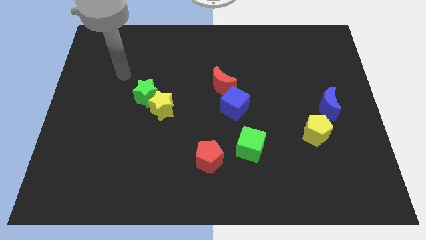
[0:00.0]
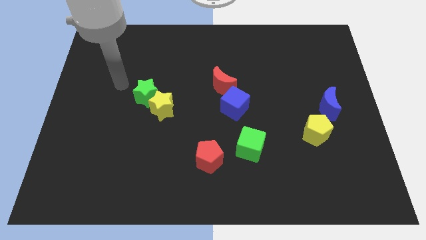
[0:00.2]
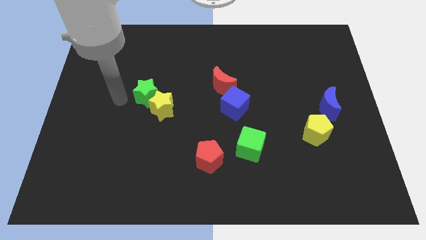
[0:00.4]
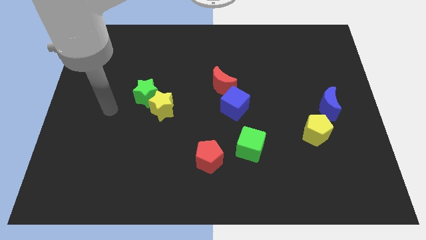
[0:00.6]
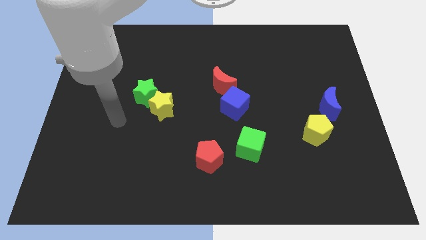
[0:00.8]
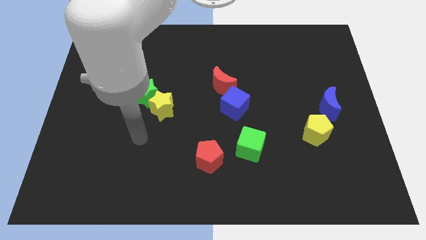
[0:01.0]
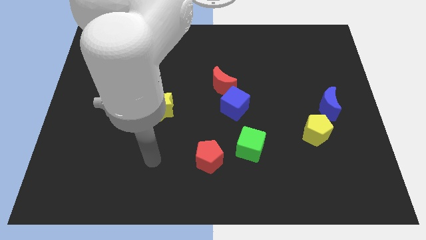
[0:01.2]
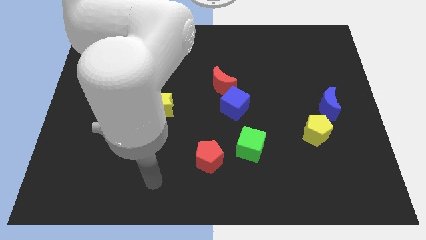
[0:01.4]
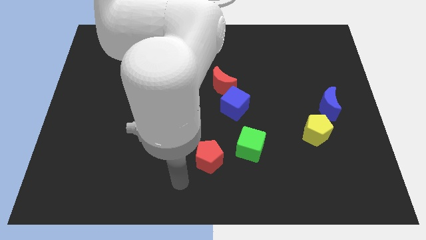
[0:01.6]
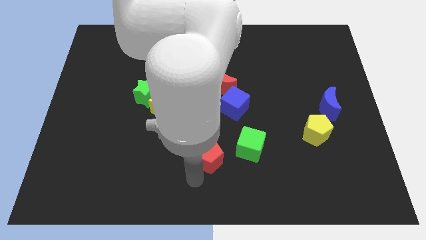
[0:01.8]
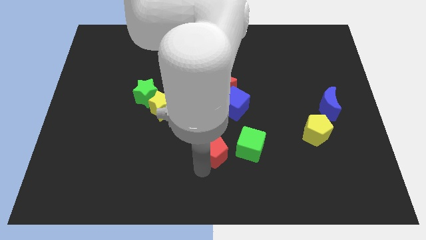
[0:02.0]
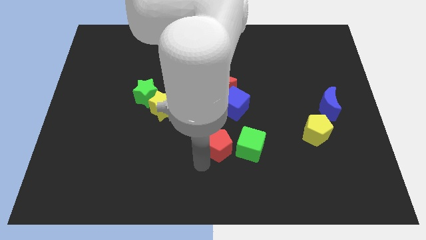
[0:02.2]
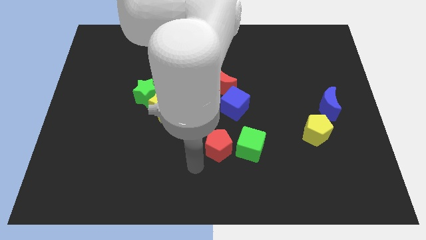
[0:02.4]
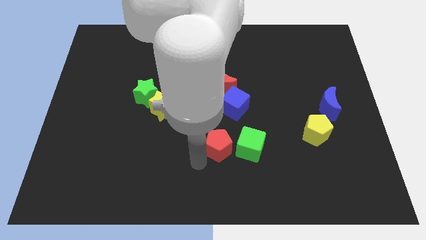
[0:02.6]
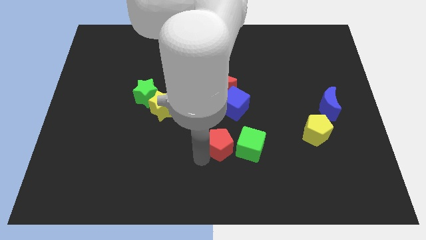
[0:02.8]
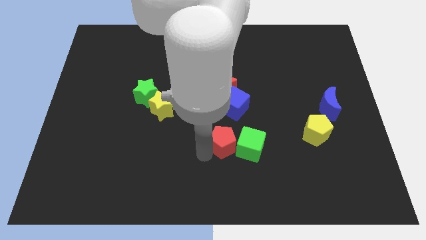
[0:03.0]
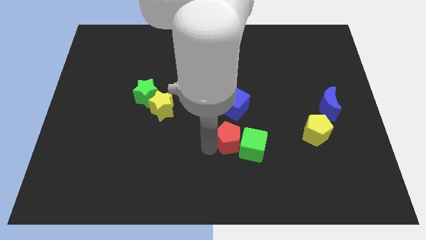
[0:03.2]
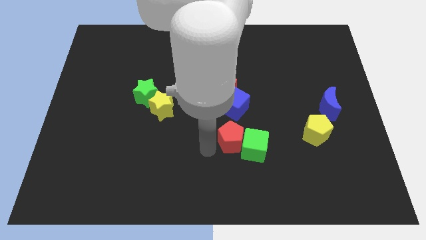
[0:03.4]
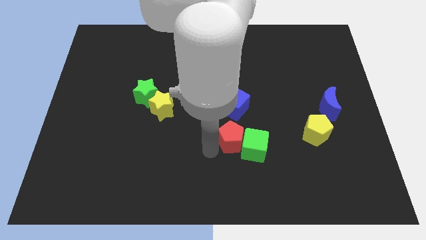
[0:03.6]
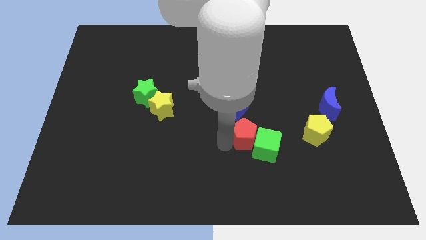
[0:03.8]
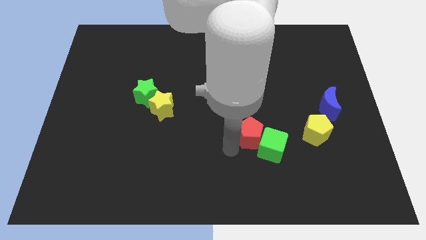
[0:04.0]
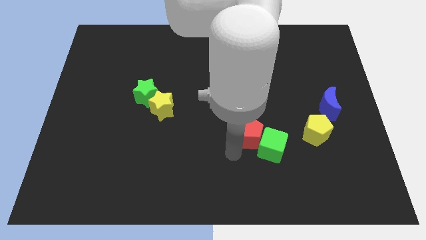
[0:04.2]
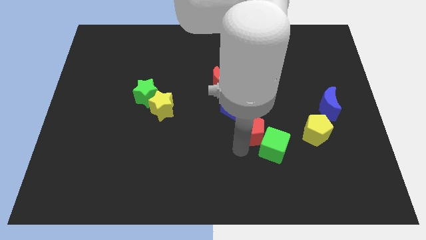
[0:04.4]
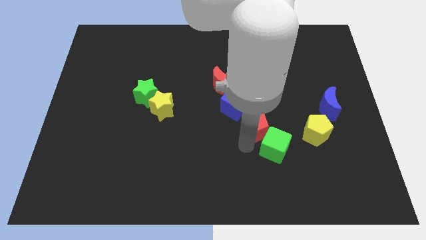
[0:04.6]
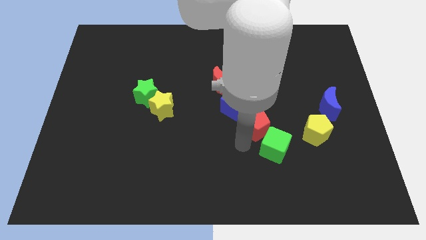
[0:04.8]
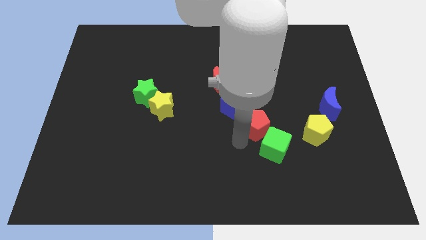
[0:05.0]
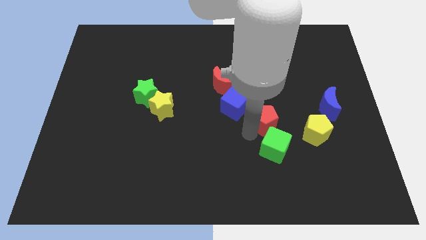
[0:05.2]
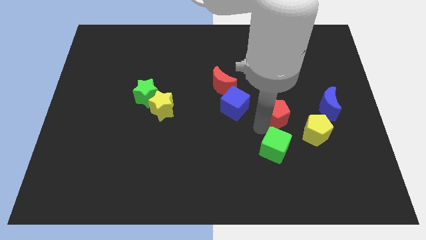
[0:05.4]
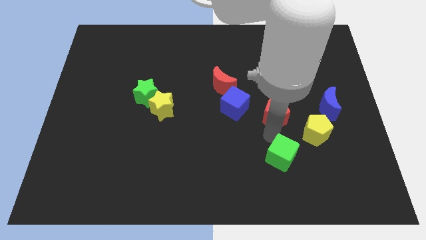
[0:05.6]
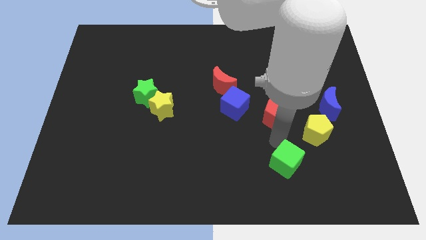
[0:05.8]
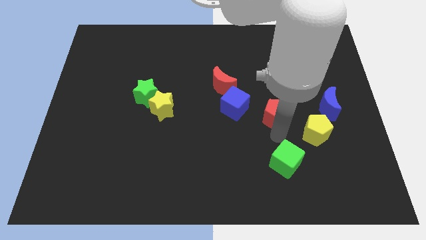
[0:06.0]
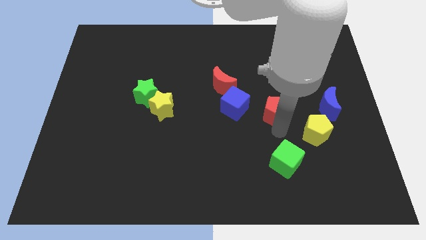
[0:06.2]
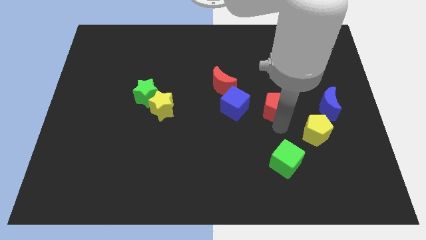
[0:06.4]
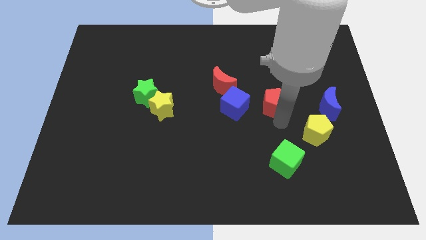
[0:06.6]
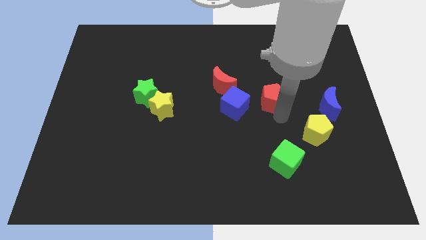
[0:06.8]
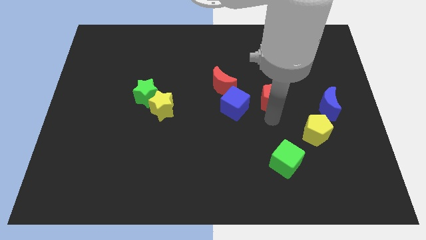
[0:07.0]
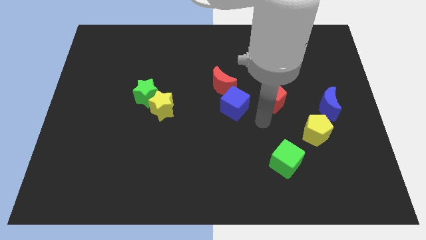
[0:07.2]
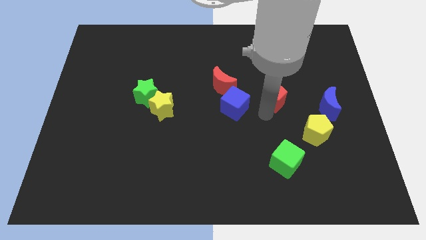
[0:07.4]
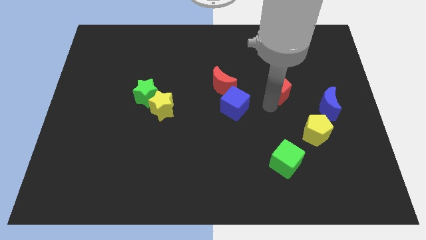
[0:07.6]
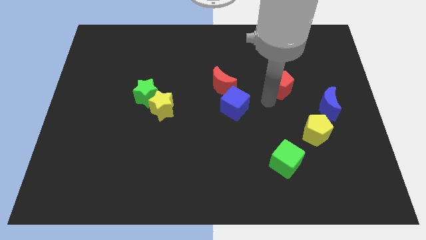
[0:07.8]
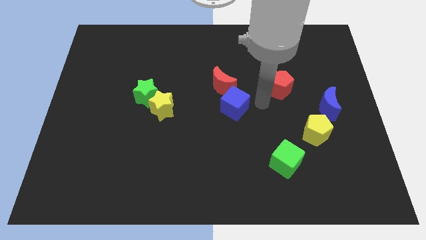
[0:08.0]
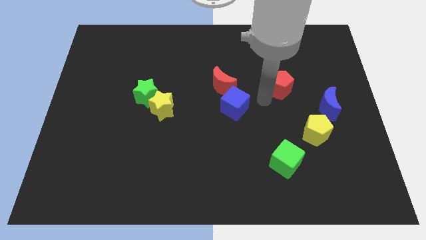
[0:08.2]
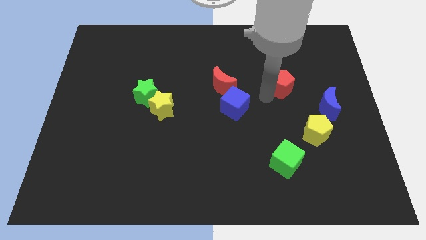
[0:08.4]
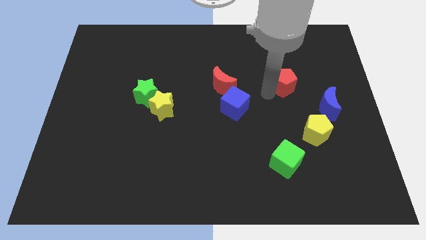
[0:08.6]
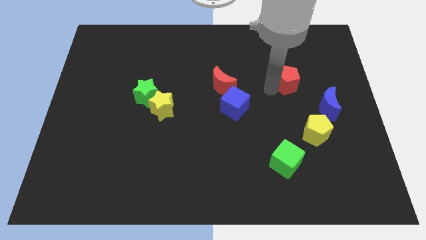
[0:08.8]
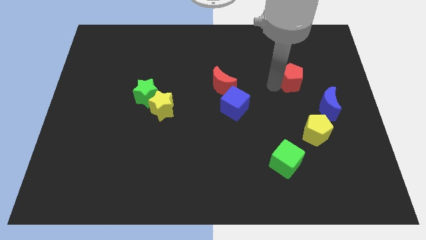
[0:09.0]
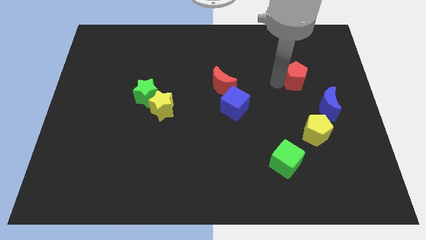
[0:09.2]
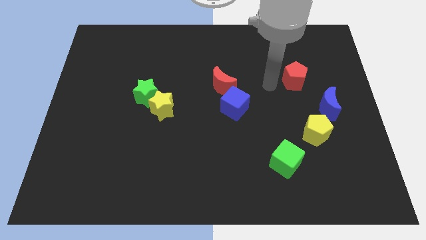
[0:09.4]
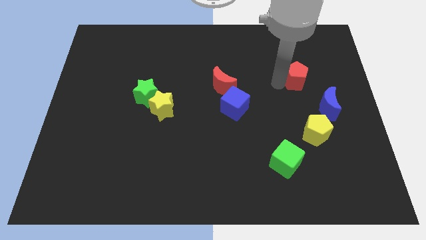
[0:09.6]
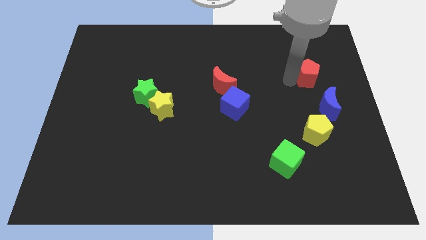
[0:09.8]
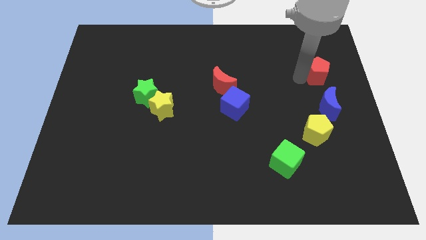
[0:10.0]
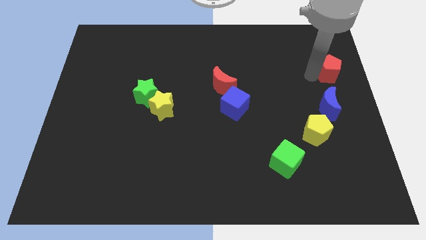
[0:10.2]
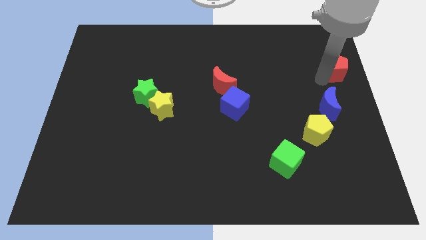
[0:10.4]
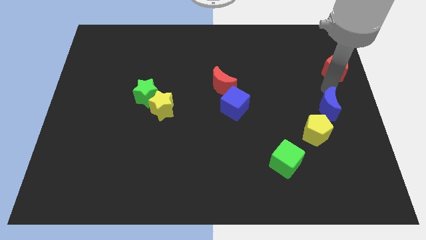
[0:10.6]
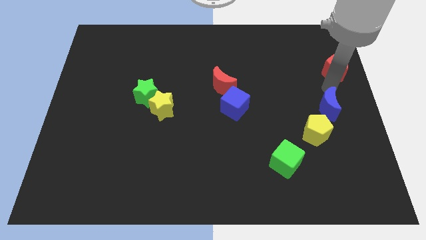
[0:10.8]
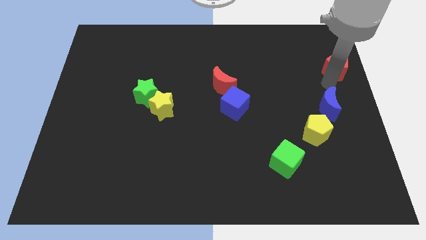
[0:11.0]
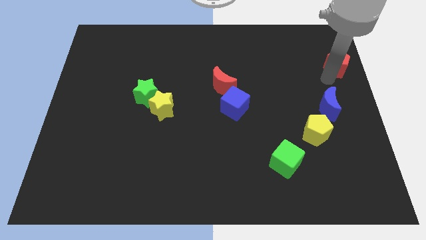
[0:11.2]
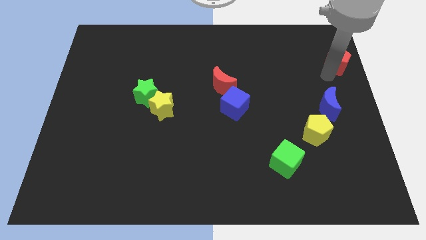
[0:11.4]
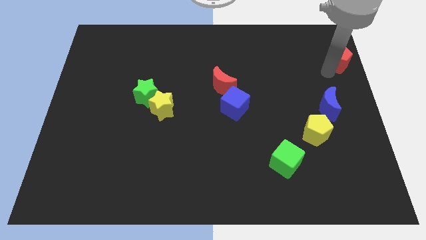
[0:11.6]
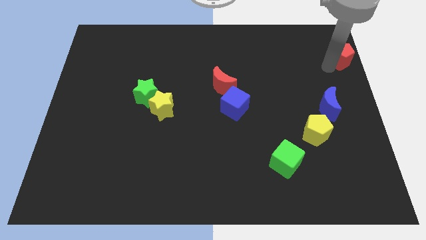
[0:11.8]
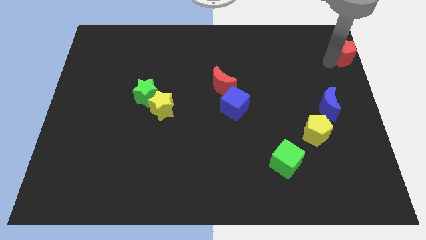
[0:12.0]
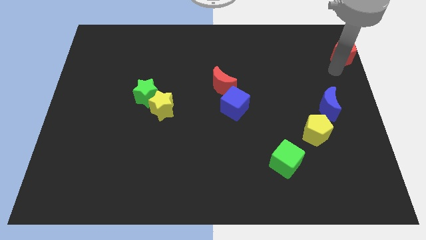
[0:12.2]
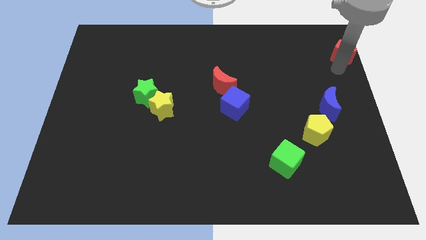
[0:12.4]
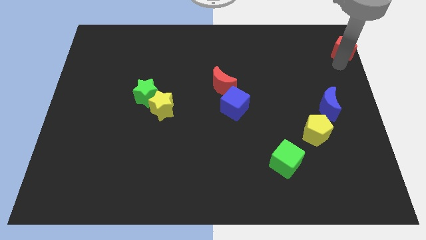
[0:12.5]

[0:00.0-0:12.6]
push the red pentagon to the upper right corner

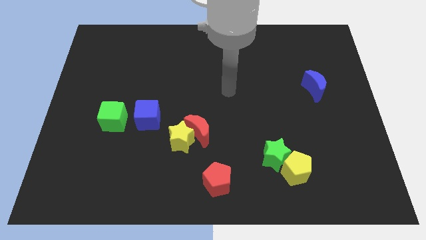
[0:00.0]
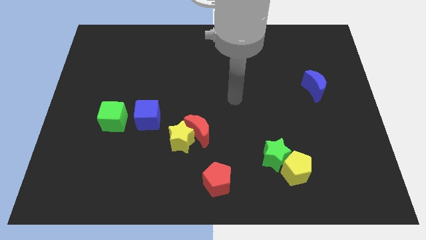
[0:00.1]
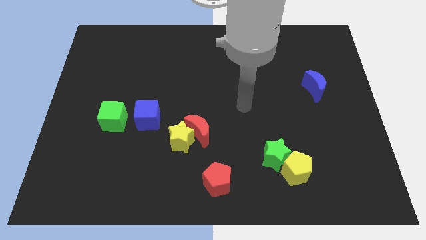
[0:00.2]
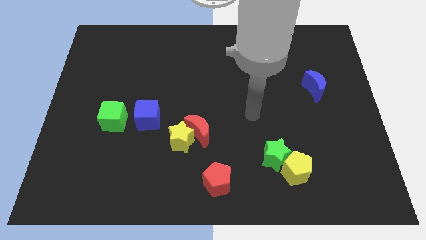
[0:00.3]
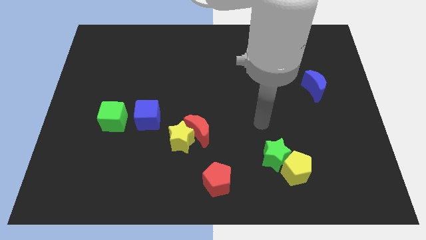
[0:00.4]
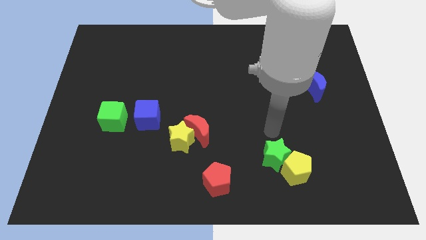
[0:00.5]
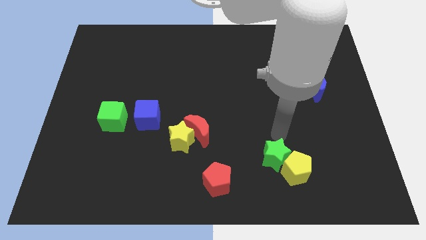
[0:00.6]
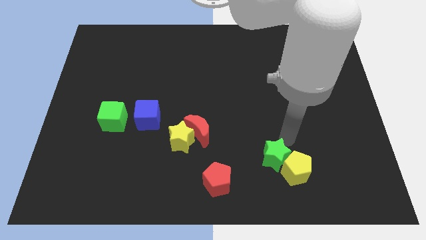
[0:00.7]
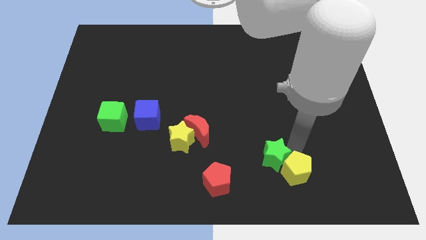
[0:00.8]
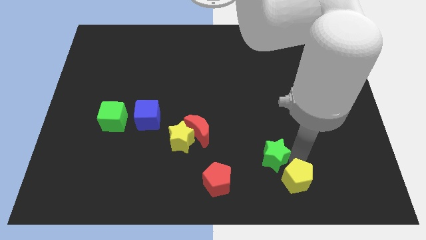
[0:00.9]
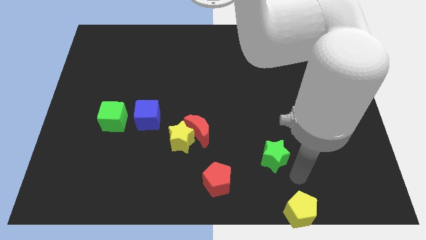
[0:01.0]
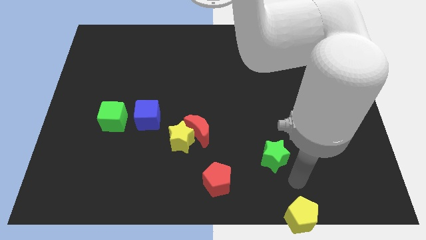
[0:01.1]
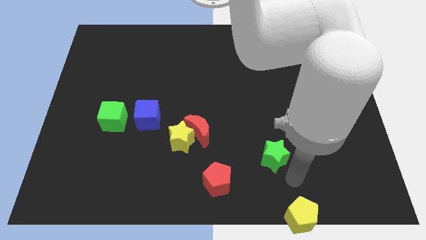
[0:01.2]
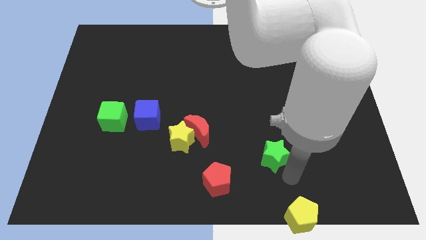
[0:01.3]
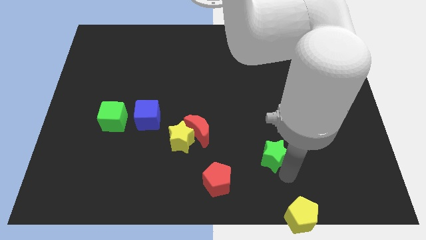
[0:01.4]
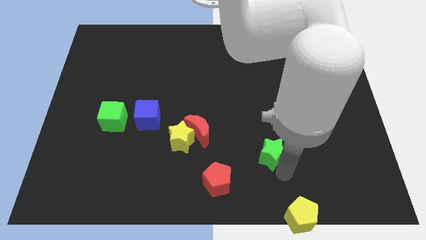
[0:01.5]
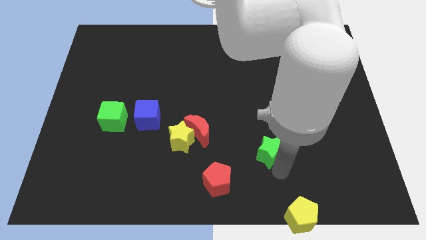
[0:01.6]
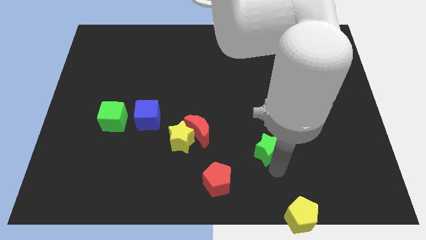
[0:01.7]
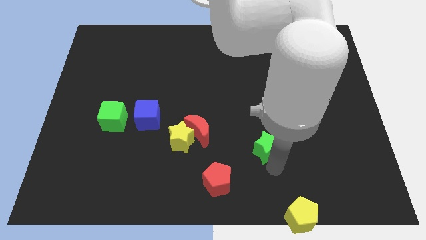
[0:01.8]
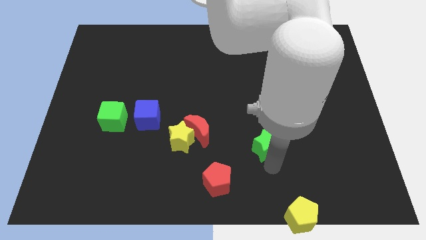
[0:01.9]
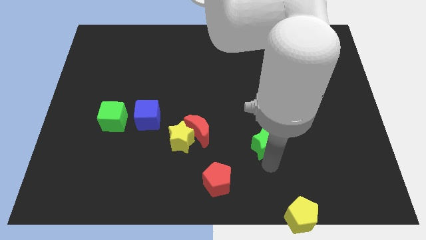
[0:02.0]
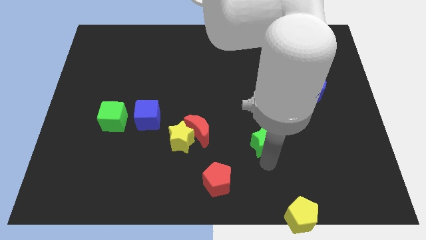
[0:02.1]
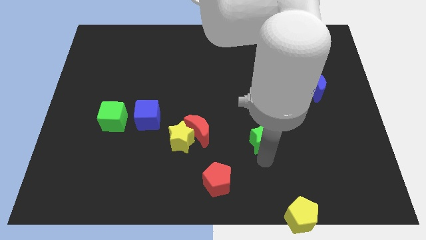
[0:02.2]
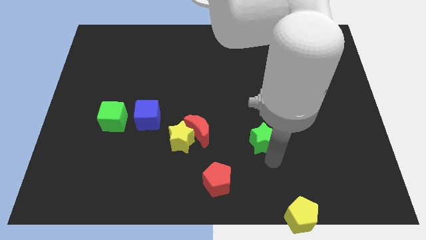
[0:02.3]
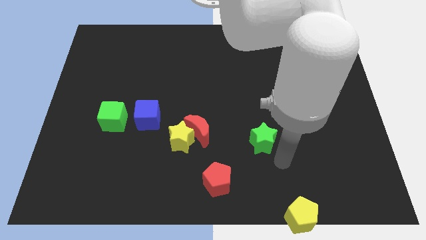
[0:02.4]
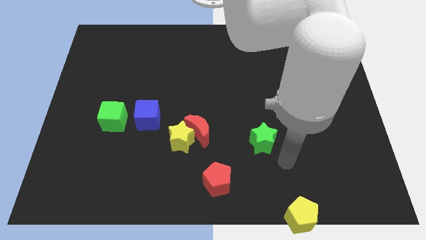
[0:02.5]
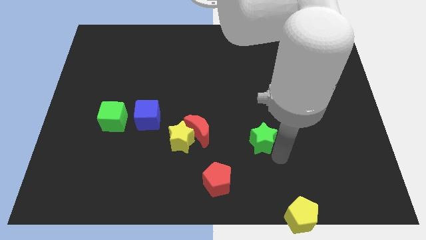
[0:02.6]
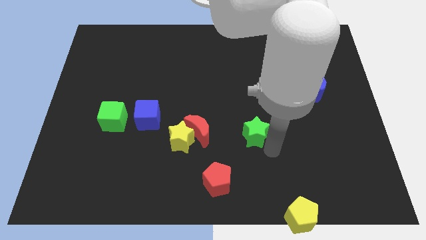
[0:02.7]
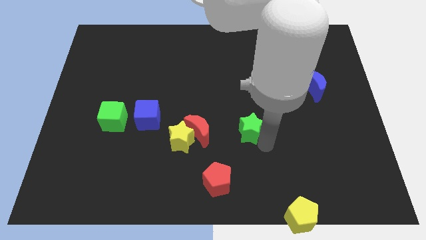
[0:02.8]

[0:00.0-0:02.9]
slide the green star to the middle of the board
